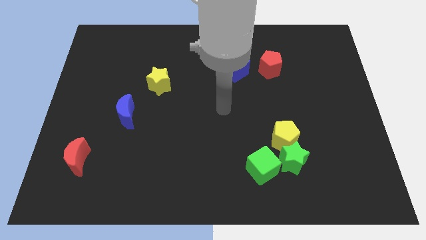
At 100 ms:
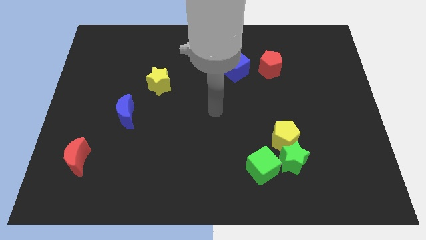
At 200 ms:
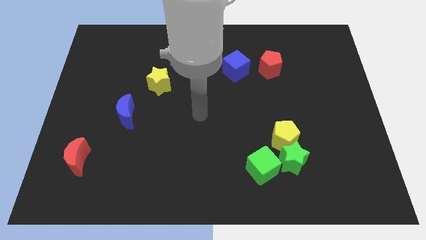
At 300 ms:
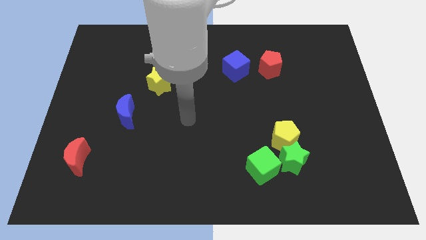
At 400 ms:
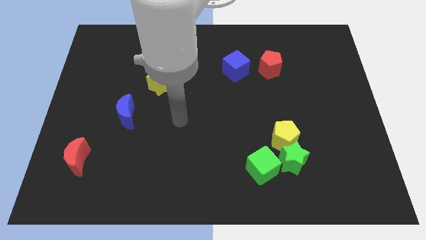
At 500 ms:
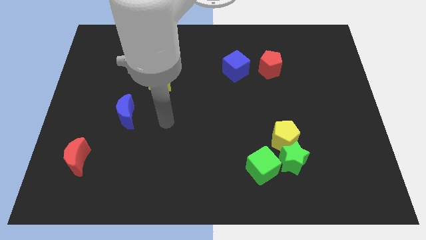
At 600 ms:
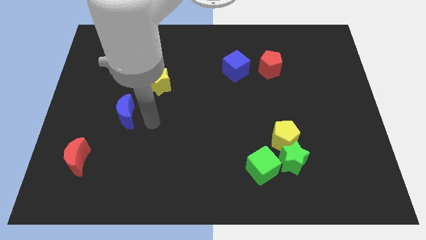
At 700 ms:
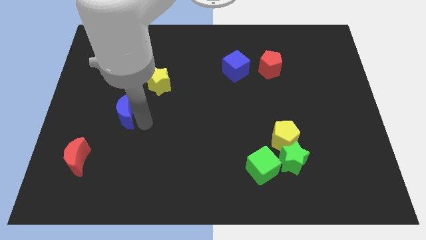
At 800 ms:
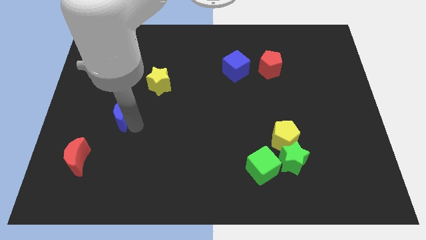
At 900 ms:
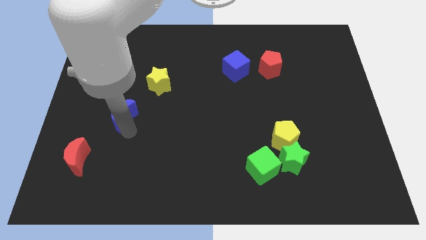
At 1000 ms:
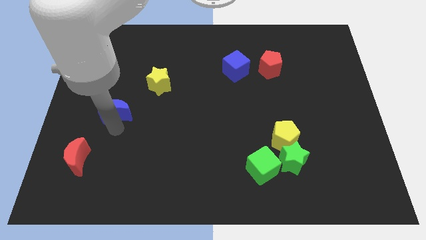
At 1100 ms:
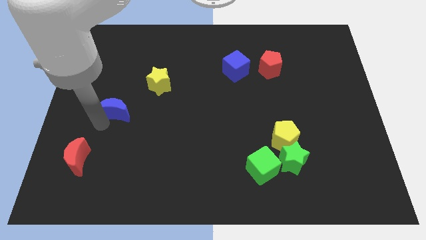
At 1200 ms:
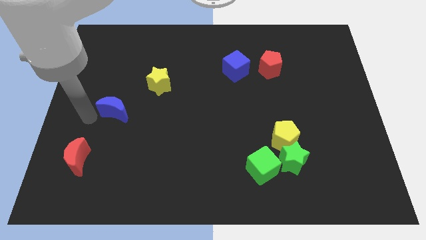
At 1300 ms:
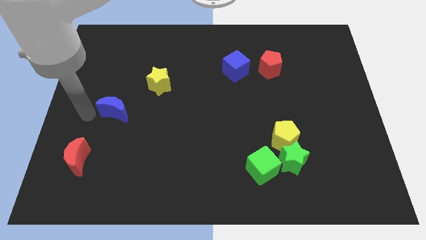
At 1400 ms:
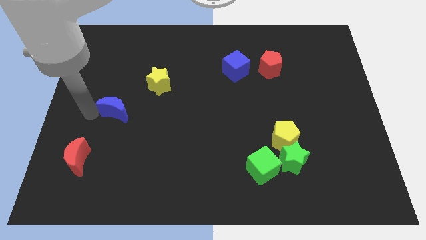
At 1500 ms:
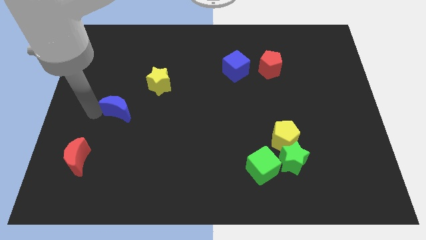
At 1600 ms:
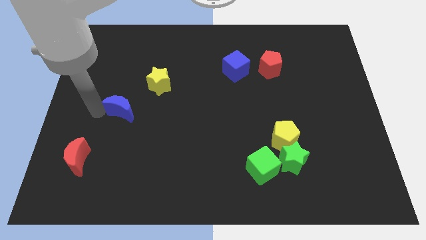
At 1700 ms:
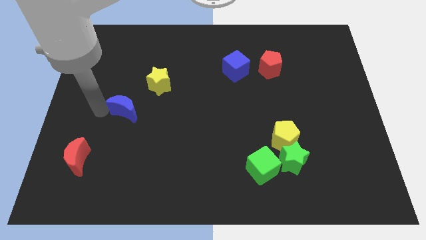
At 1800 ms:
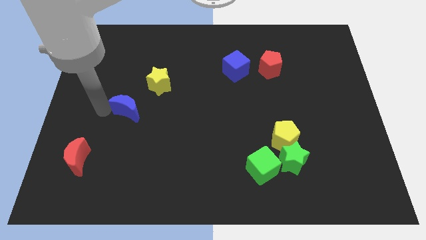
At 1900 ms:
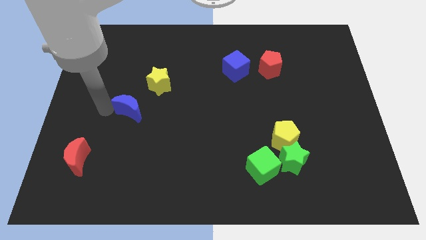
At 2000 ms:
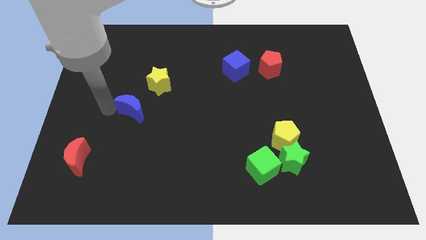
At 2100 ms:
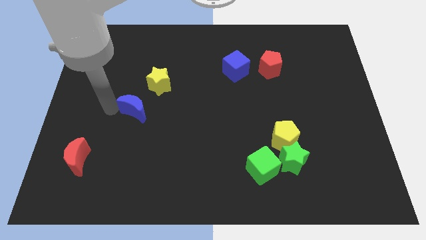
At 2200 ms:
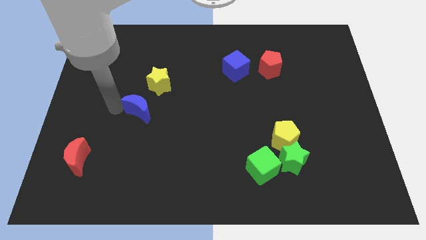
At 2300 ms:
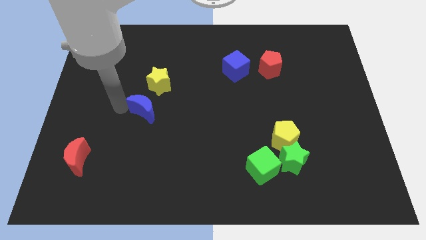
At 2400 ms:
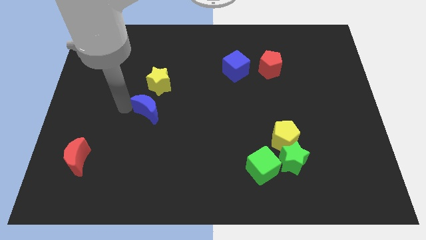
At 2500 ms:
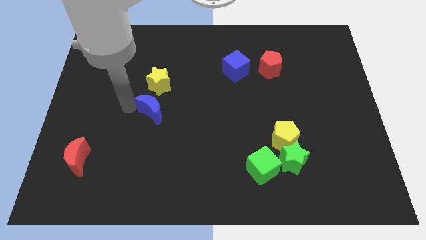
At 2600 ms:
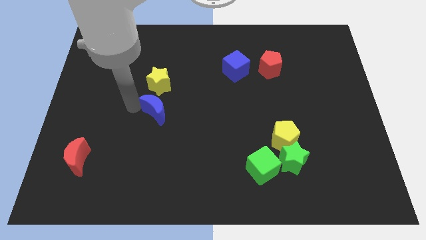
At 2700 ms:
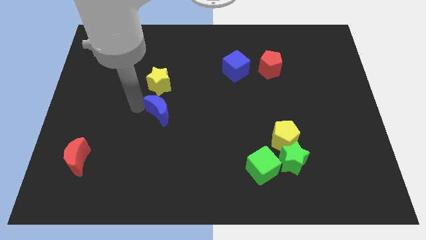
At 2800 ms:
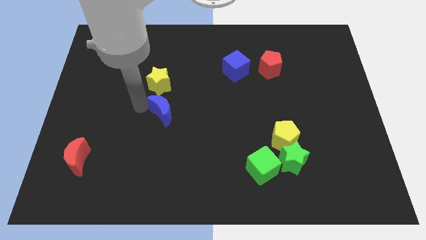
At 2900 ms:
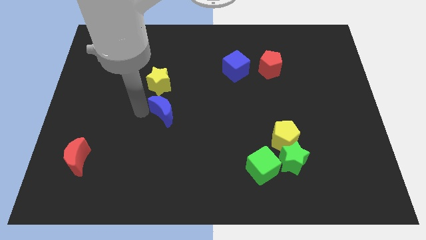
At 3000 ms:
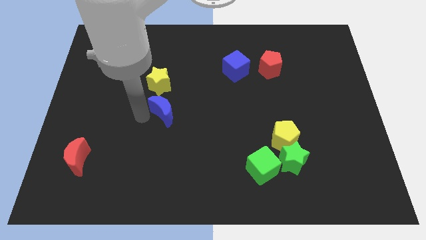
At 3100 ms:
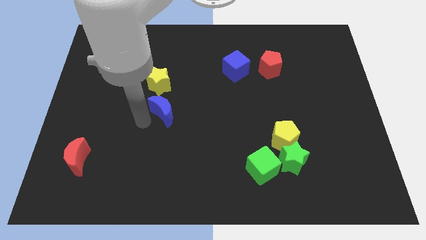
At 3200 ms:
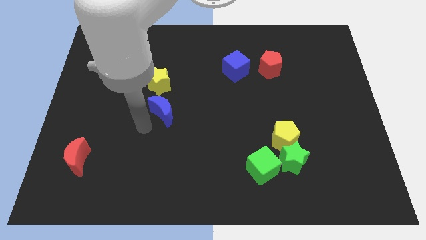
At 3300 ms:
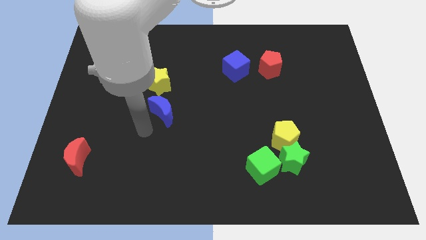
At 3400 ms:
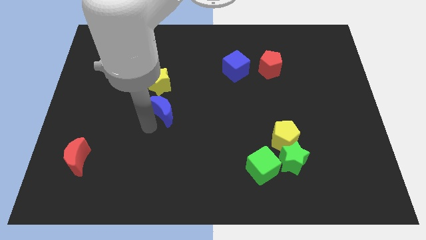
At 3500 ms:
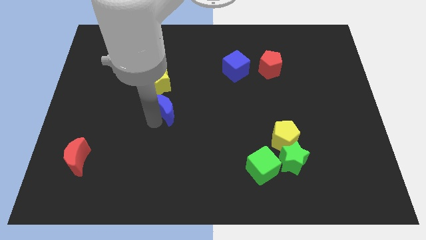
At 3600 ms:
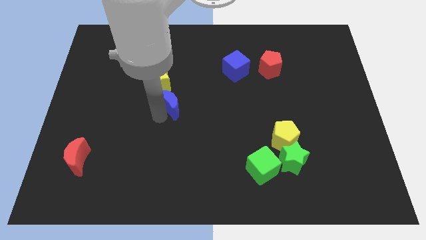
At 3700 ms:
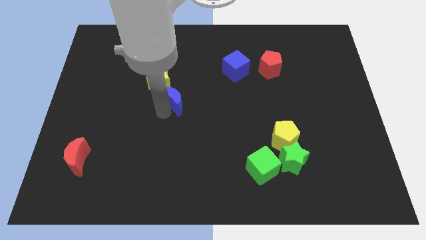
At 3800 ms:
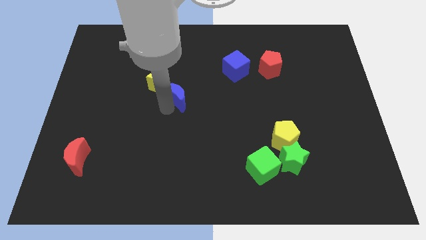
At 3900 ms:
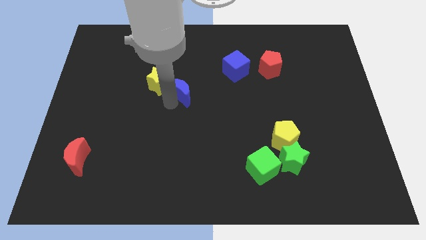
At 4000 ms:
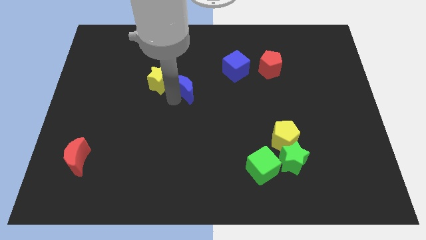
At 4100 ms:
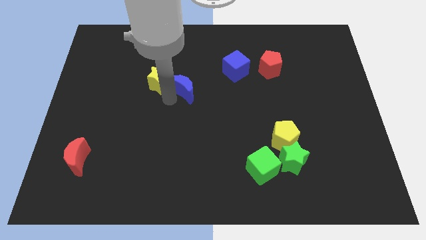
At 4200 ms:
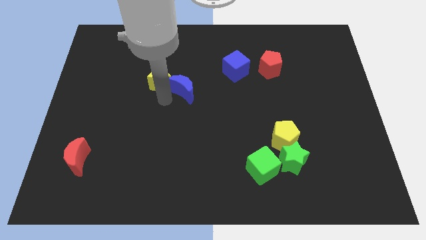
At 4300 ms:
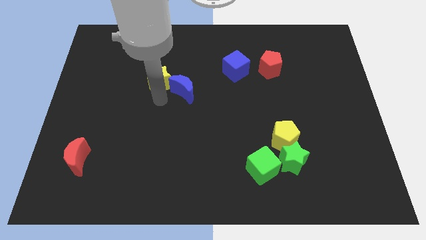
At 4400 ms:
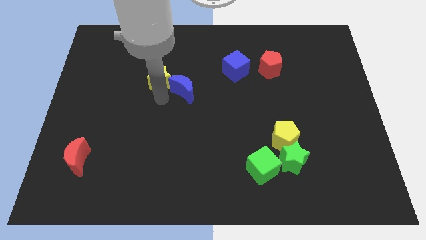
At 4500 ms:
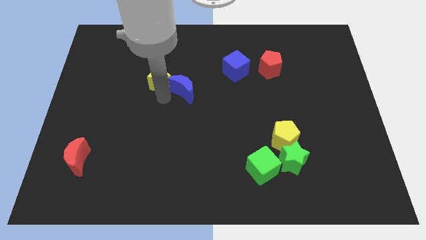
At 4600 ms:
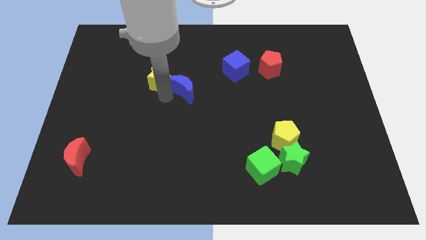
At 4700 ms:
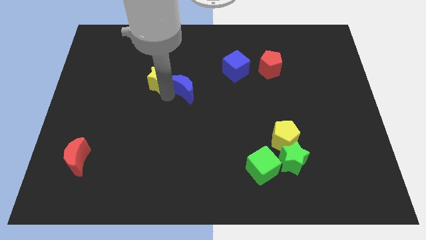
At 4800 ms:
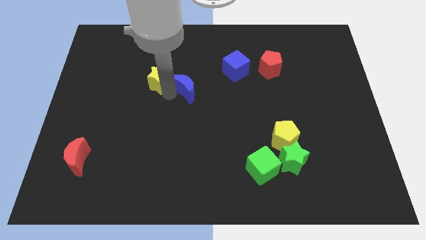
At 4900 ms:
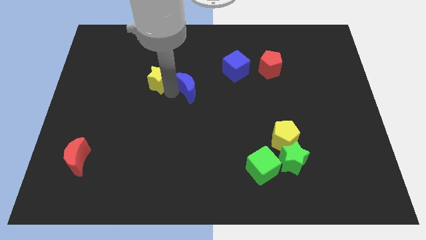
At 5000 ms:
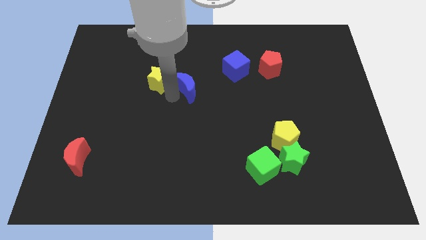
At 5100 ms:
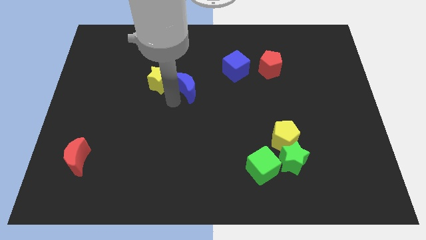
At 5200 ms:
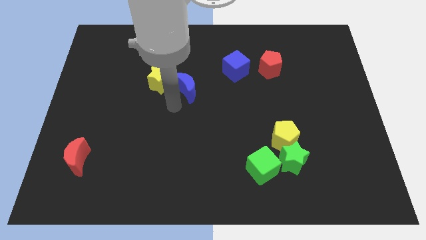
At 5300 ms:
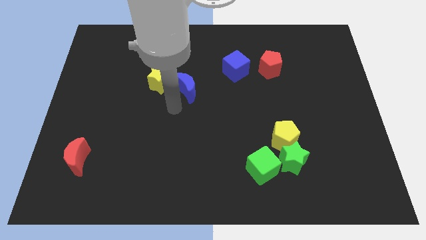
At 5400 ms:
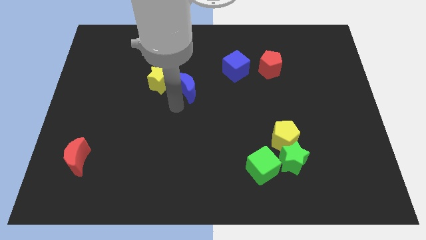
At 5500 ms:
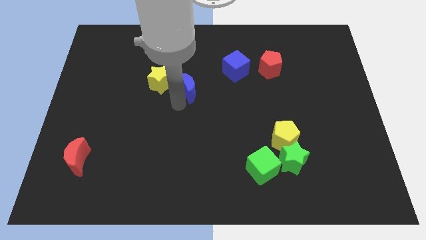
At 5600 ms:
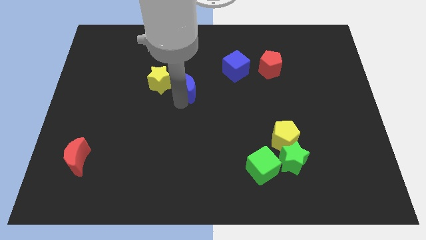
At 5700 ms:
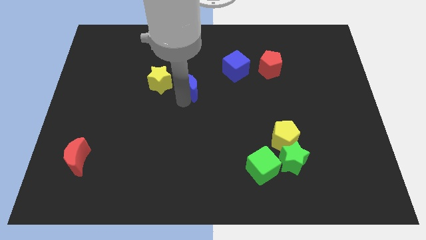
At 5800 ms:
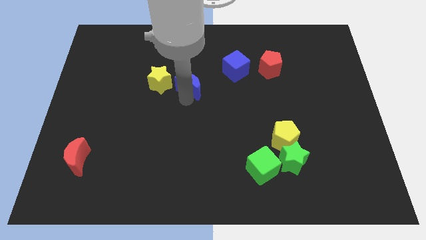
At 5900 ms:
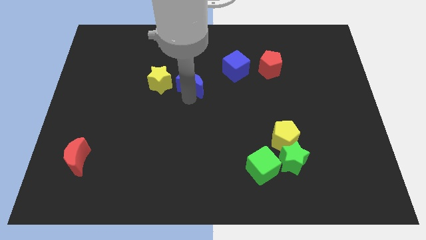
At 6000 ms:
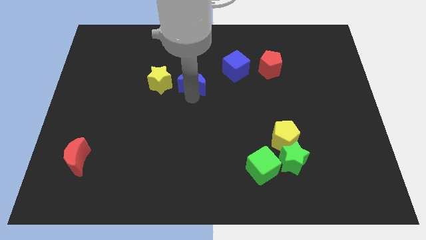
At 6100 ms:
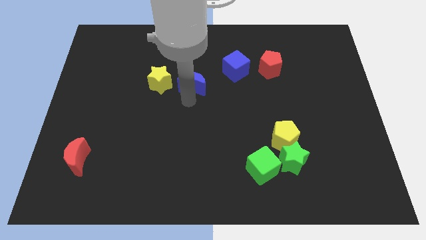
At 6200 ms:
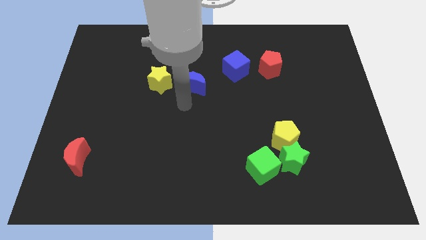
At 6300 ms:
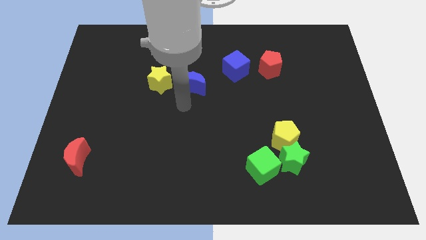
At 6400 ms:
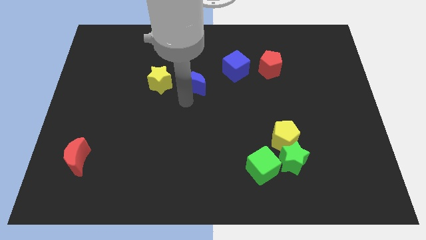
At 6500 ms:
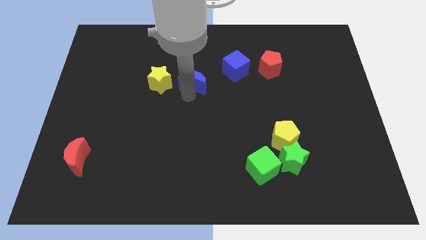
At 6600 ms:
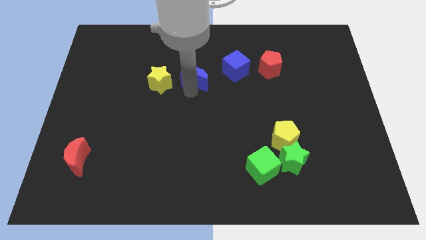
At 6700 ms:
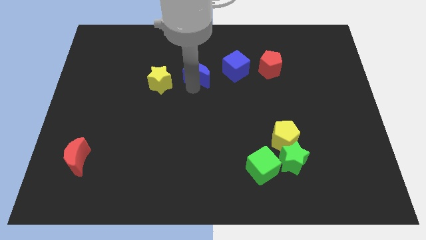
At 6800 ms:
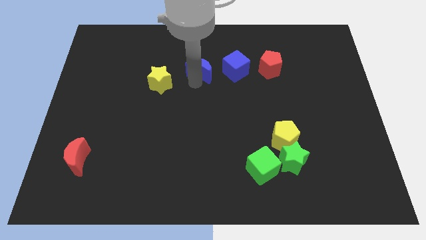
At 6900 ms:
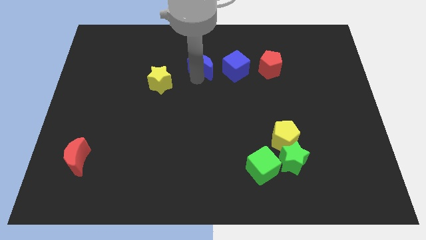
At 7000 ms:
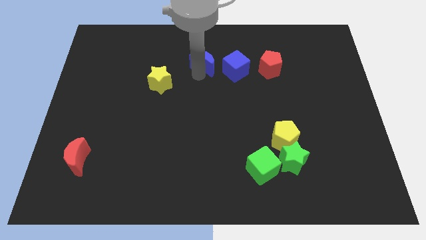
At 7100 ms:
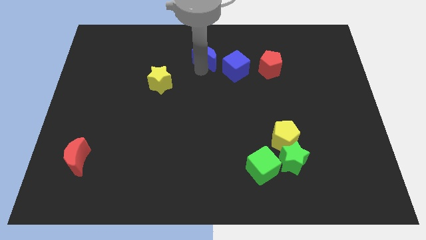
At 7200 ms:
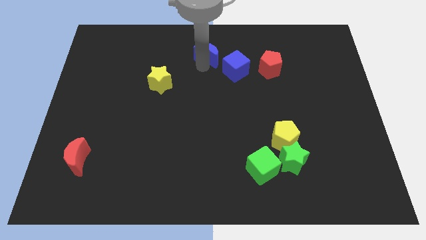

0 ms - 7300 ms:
move the blue moon to the top side
